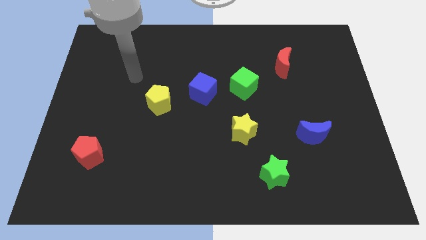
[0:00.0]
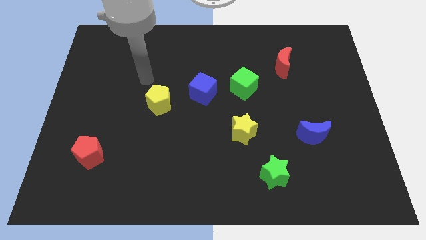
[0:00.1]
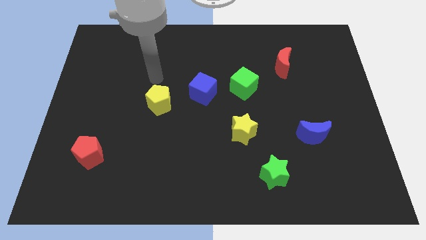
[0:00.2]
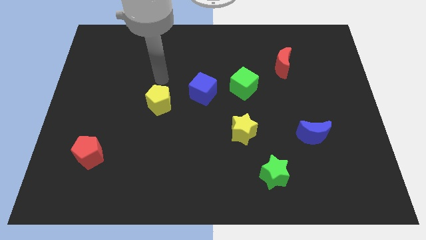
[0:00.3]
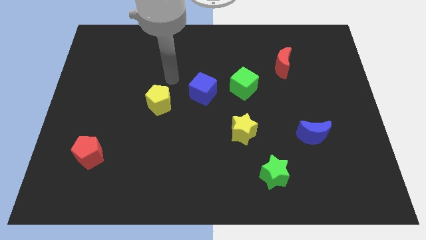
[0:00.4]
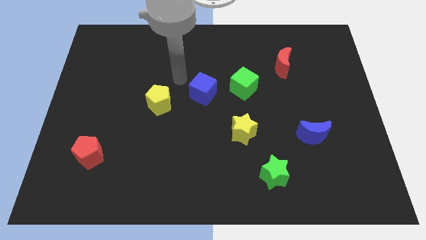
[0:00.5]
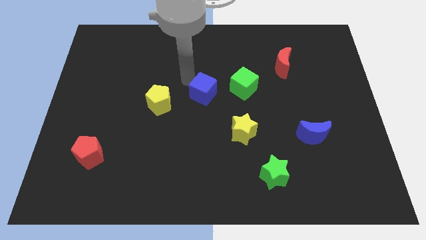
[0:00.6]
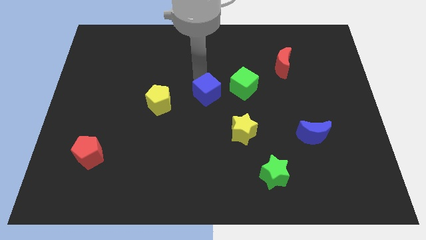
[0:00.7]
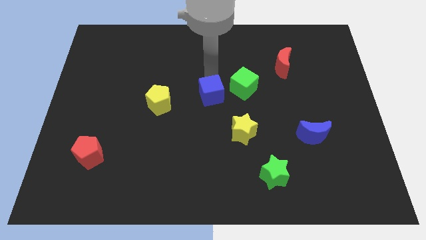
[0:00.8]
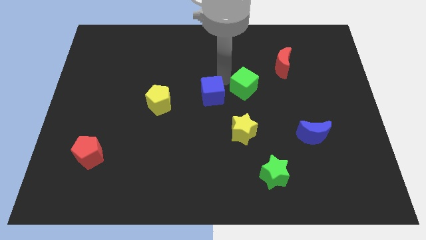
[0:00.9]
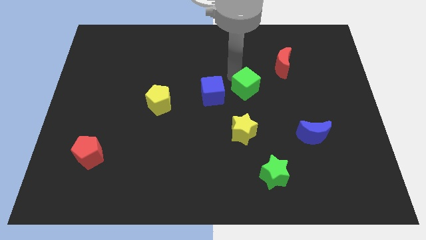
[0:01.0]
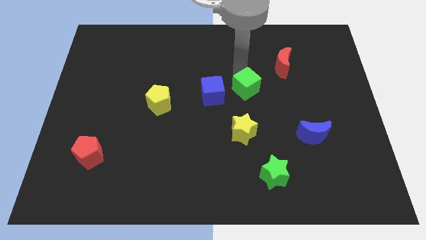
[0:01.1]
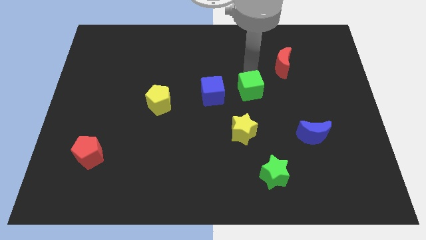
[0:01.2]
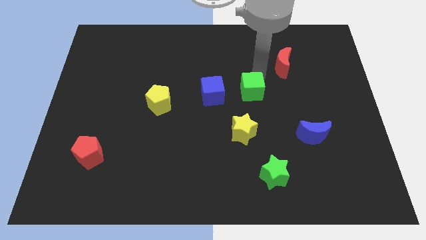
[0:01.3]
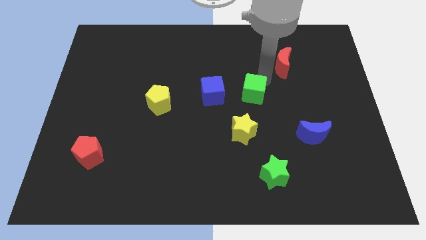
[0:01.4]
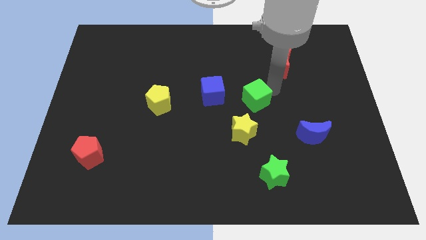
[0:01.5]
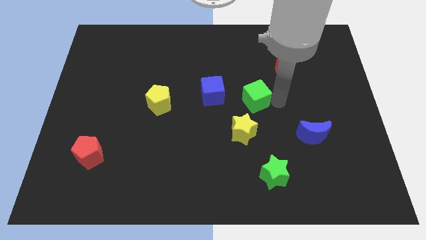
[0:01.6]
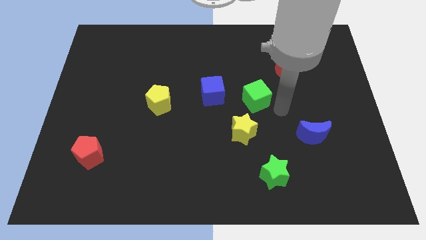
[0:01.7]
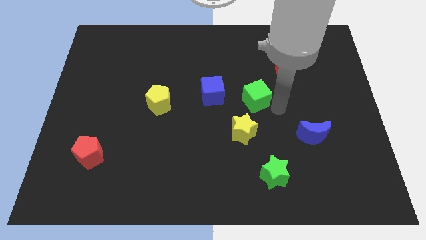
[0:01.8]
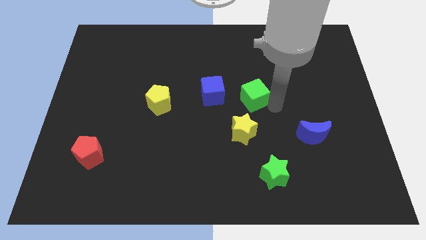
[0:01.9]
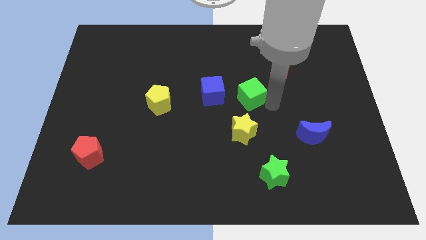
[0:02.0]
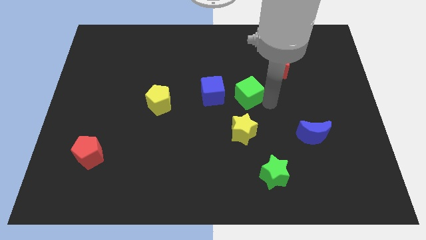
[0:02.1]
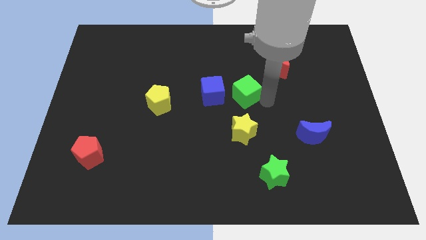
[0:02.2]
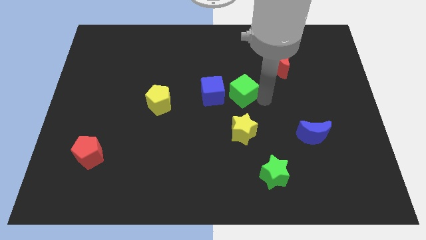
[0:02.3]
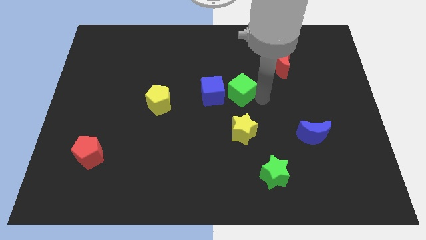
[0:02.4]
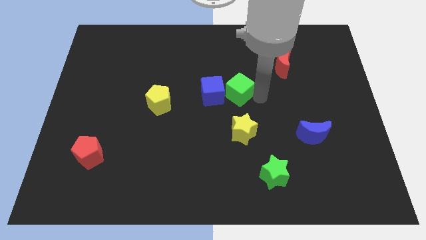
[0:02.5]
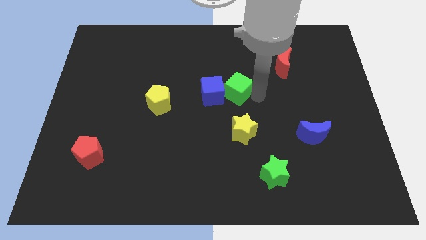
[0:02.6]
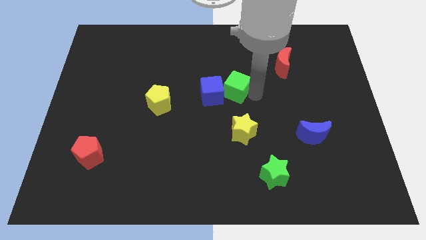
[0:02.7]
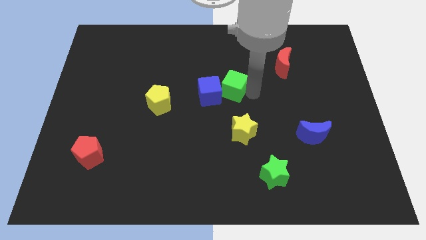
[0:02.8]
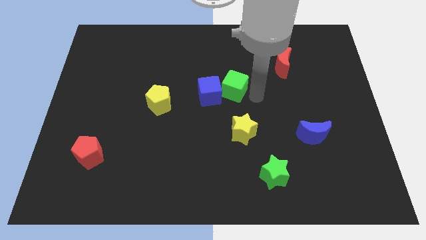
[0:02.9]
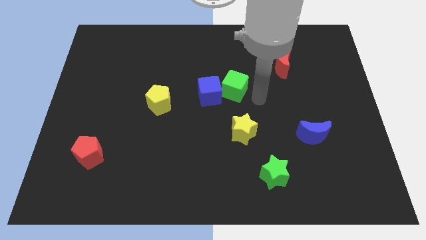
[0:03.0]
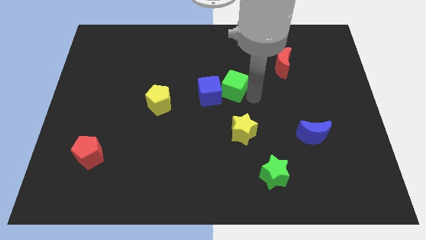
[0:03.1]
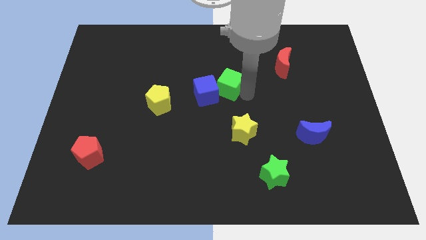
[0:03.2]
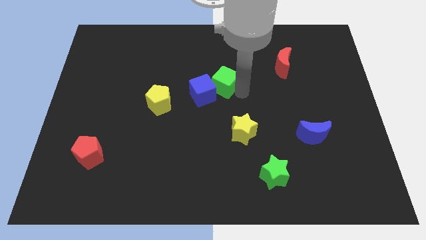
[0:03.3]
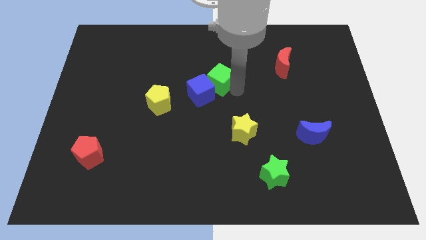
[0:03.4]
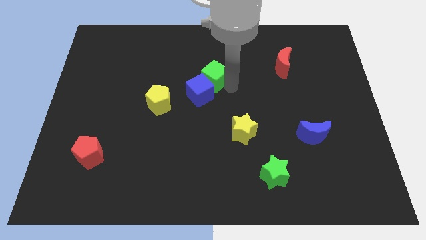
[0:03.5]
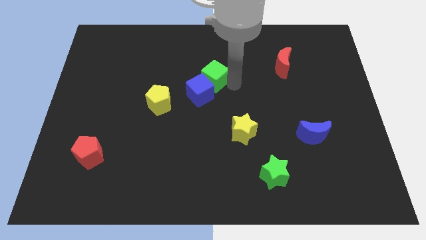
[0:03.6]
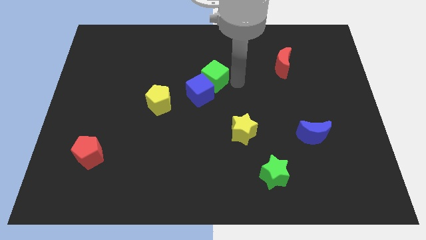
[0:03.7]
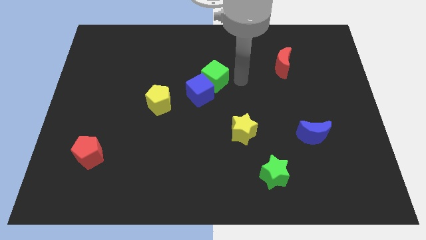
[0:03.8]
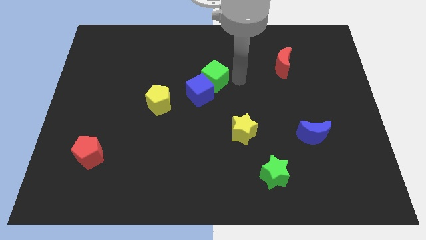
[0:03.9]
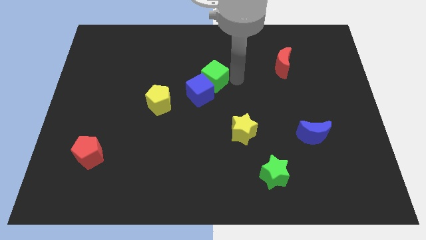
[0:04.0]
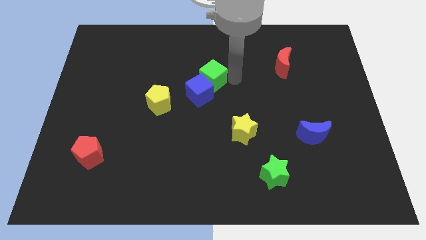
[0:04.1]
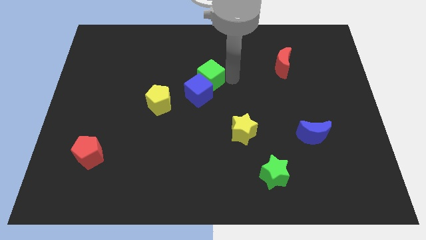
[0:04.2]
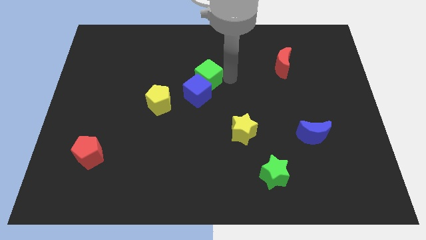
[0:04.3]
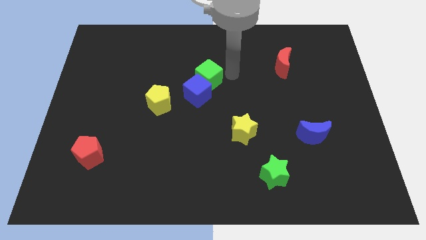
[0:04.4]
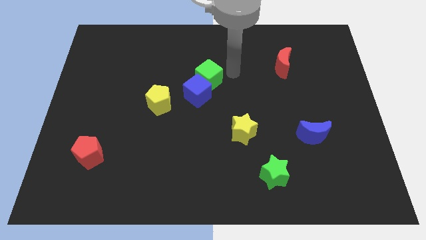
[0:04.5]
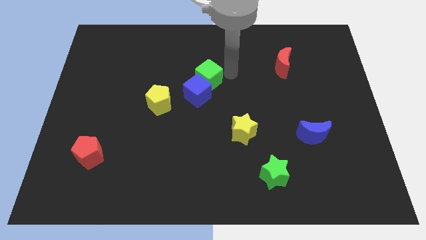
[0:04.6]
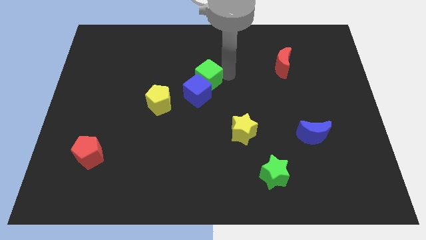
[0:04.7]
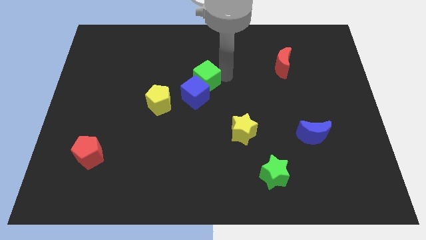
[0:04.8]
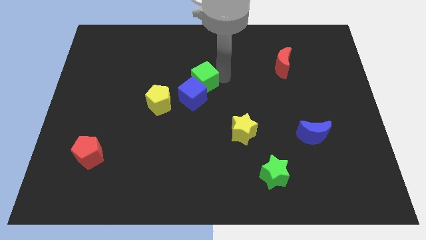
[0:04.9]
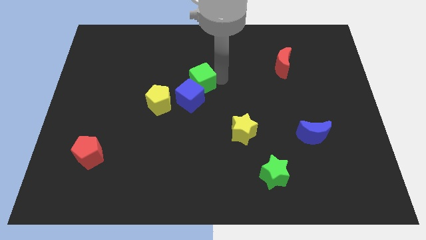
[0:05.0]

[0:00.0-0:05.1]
put the green cube to the top right side of the yellow pentagon
